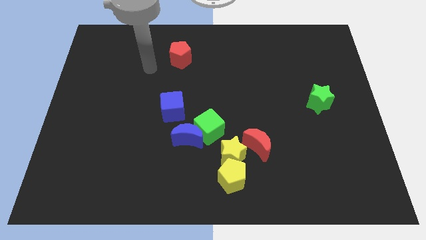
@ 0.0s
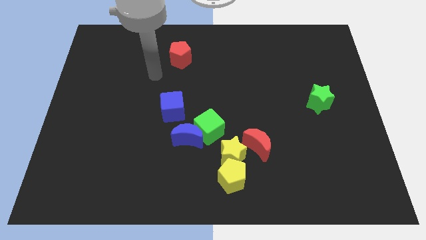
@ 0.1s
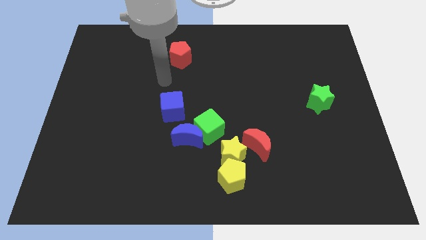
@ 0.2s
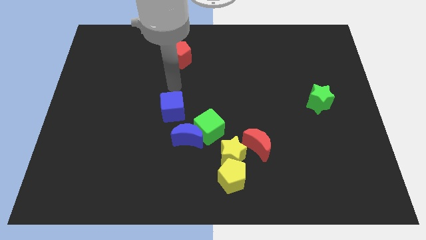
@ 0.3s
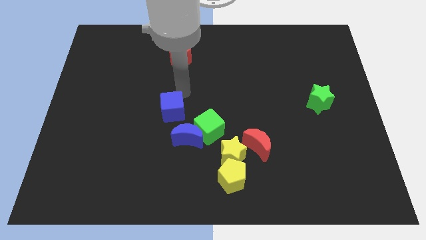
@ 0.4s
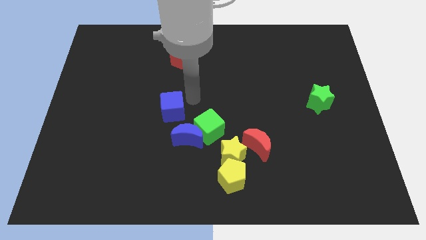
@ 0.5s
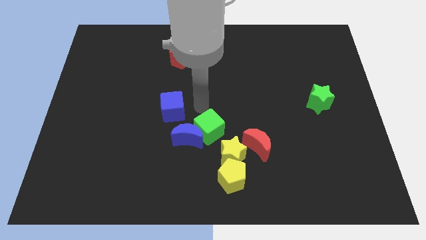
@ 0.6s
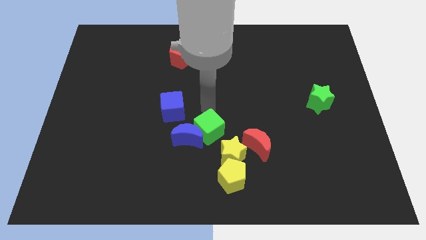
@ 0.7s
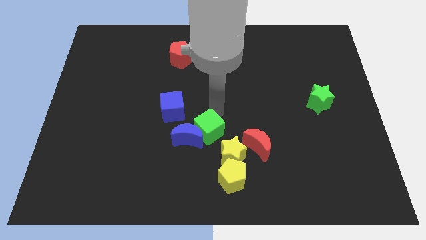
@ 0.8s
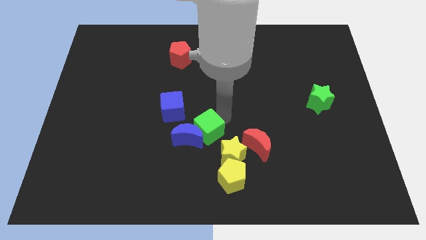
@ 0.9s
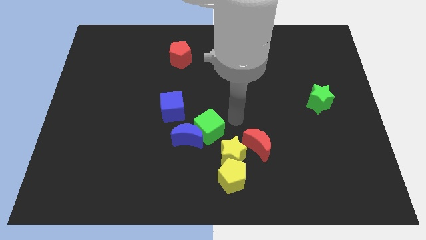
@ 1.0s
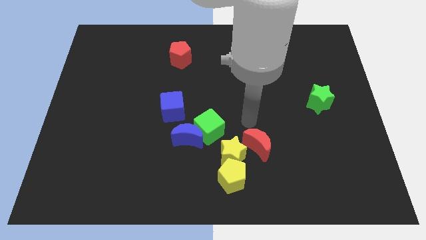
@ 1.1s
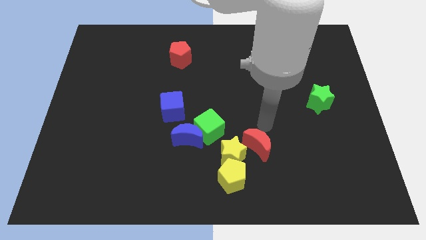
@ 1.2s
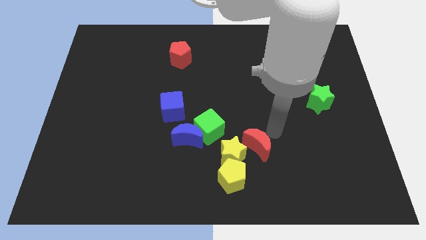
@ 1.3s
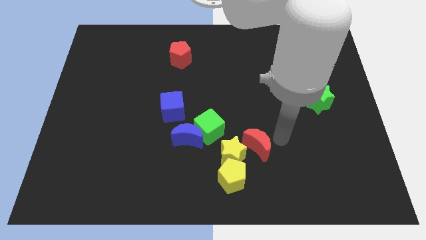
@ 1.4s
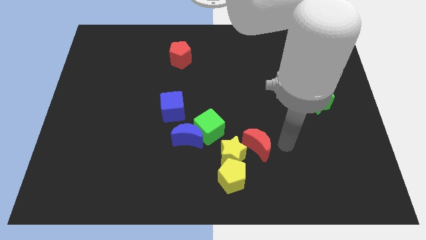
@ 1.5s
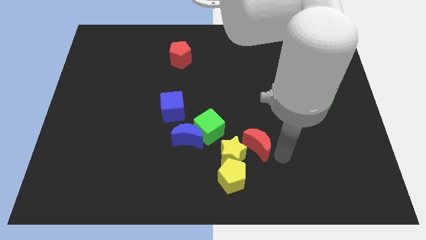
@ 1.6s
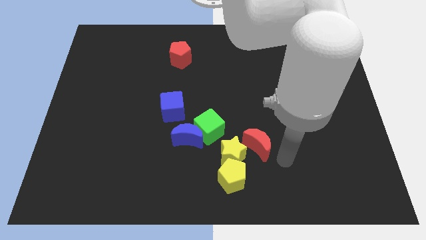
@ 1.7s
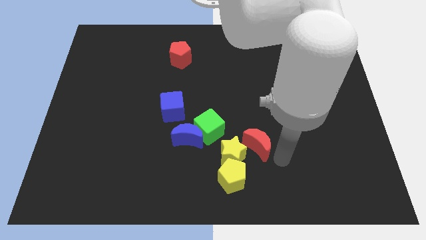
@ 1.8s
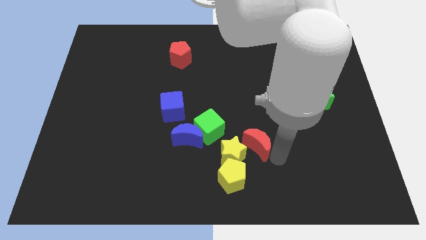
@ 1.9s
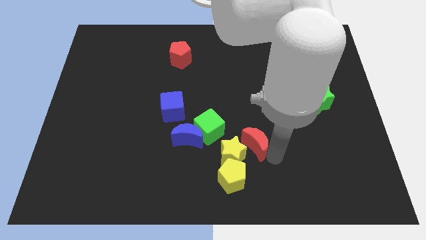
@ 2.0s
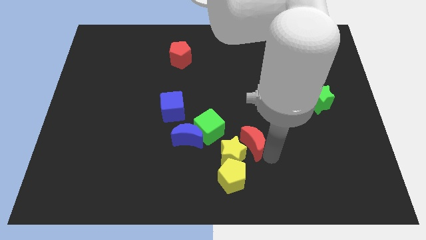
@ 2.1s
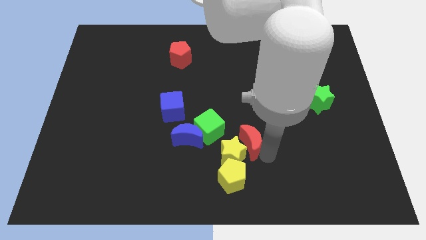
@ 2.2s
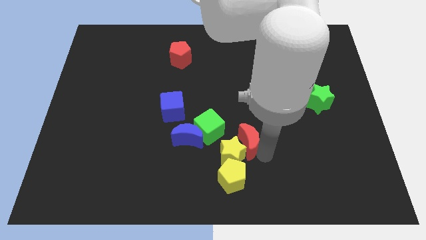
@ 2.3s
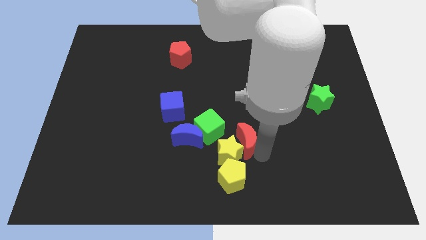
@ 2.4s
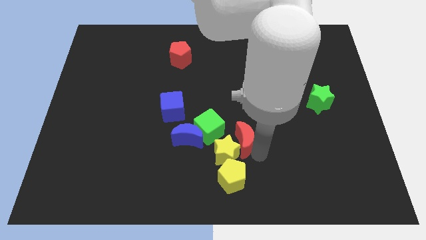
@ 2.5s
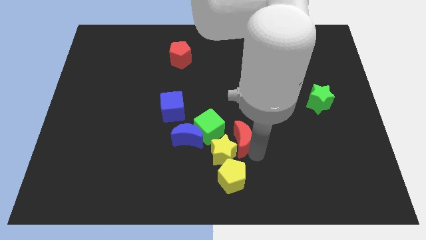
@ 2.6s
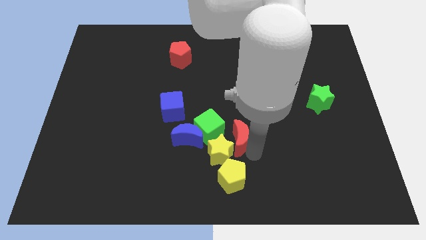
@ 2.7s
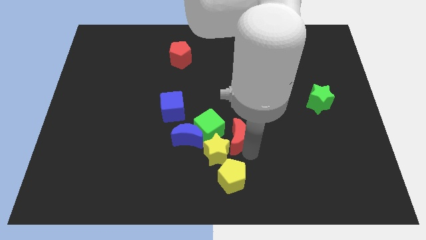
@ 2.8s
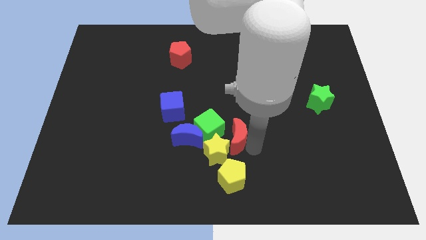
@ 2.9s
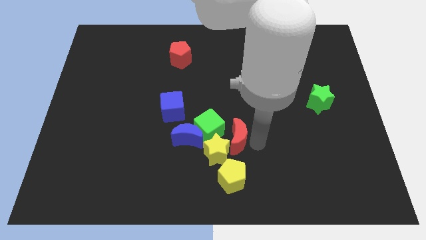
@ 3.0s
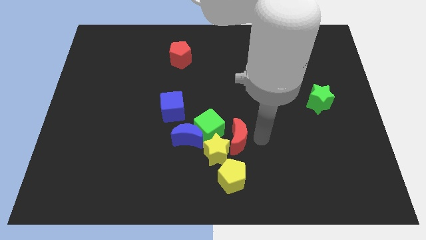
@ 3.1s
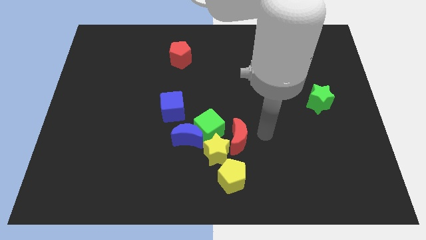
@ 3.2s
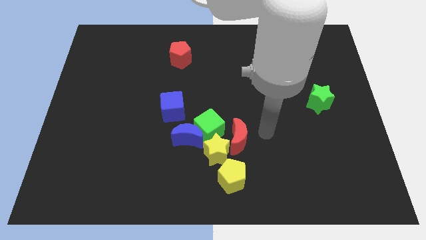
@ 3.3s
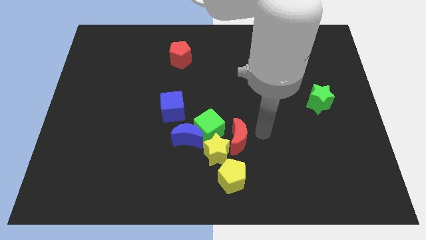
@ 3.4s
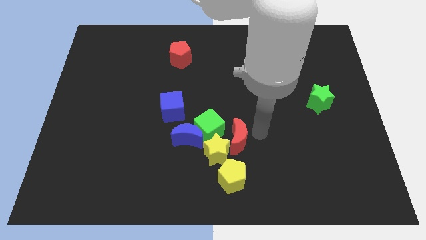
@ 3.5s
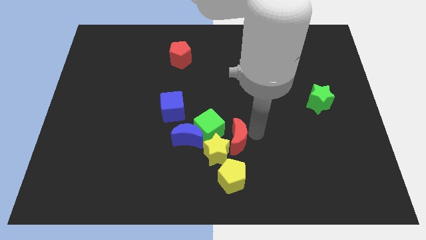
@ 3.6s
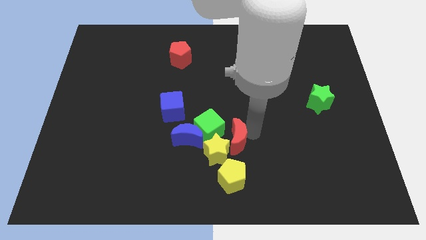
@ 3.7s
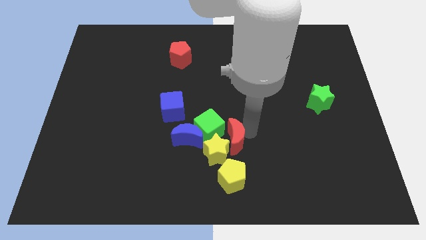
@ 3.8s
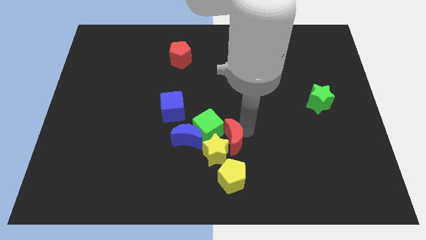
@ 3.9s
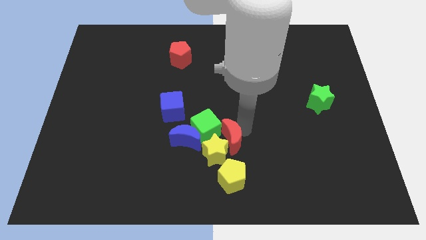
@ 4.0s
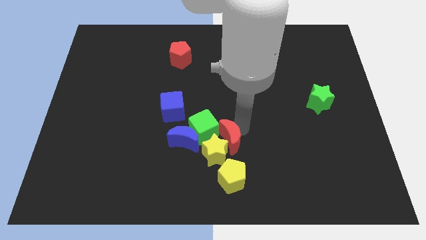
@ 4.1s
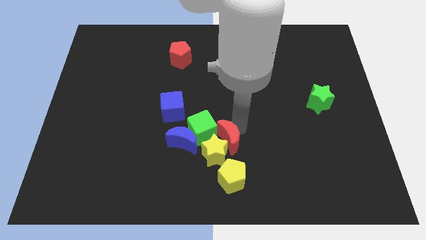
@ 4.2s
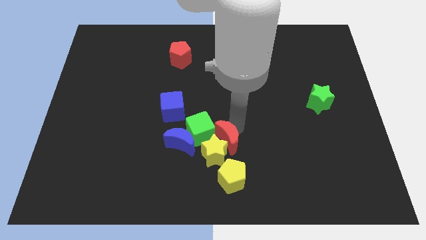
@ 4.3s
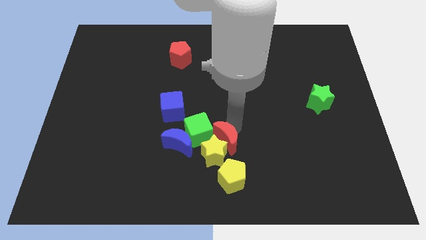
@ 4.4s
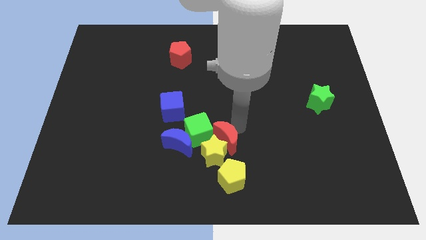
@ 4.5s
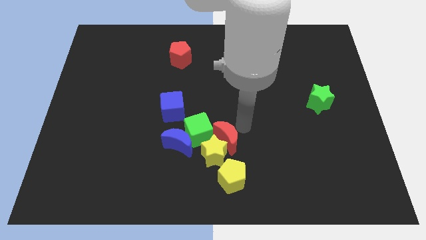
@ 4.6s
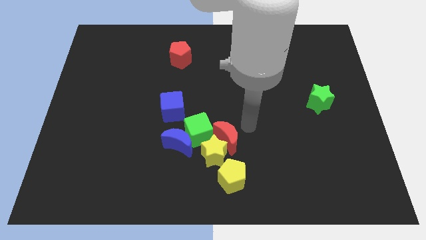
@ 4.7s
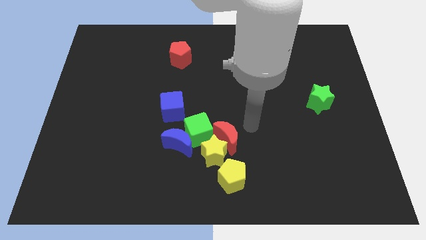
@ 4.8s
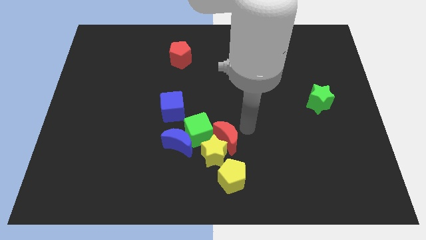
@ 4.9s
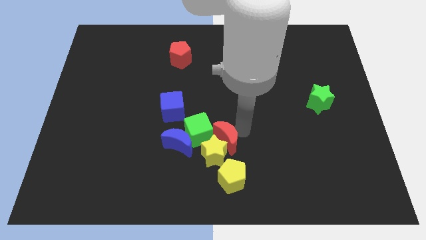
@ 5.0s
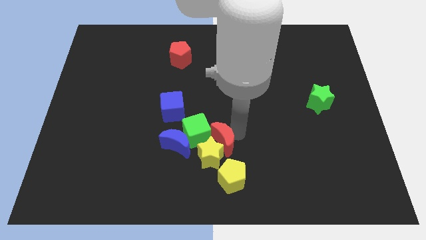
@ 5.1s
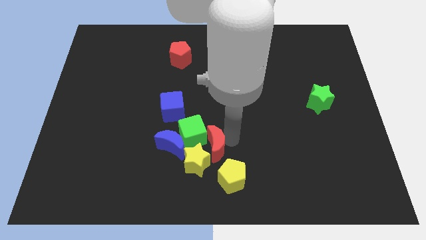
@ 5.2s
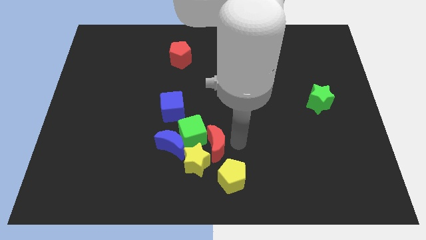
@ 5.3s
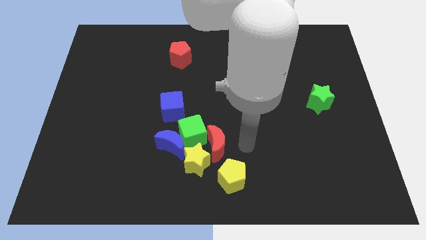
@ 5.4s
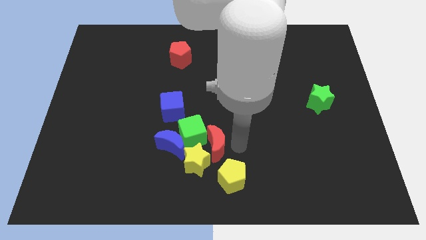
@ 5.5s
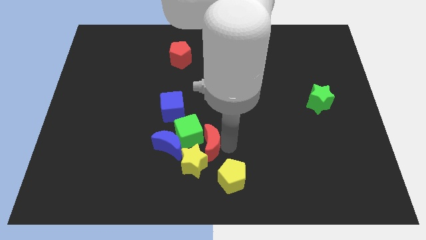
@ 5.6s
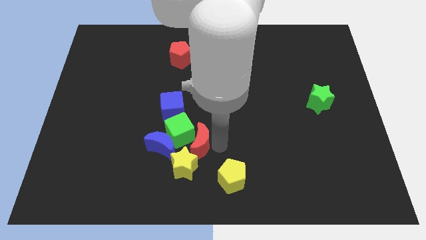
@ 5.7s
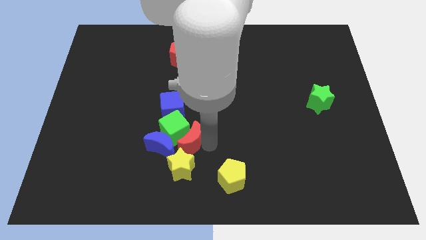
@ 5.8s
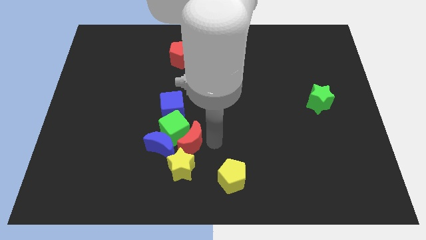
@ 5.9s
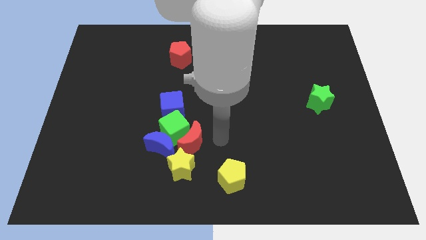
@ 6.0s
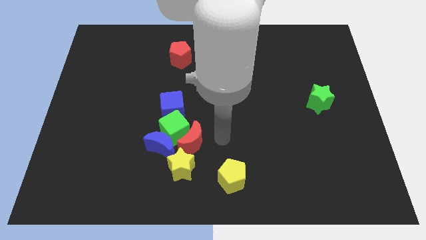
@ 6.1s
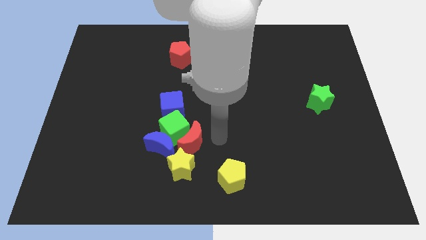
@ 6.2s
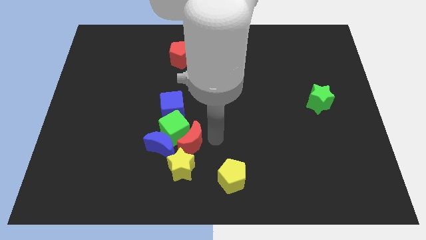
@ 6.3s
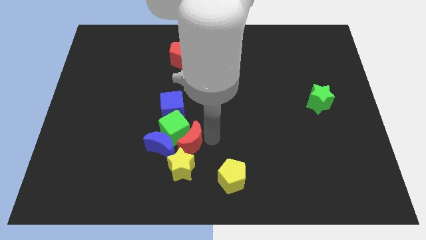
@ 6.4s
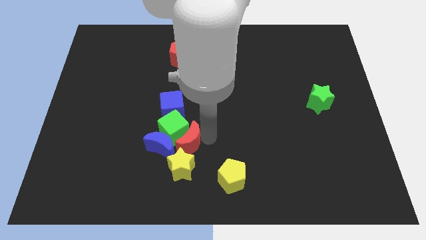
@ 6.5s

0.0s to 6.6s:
put the red moon towards the blue moon
